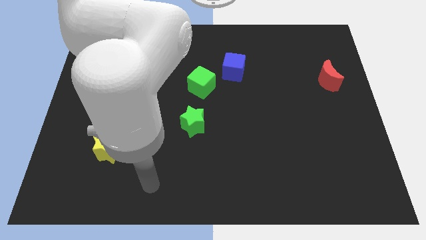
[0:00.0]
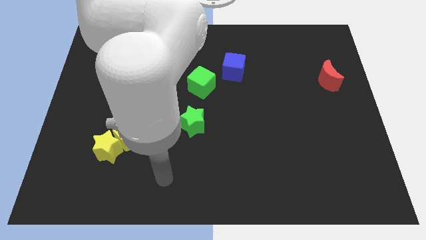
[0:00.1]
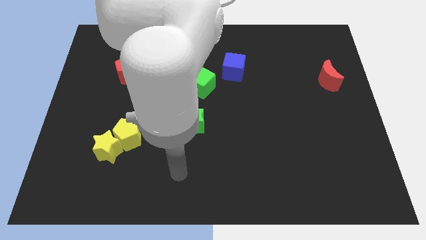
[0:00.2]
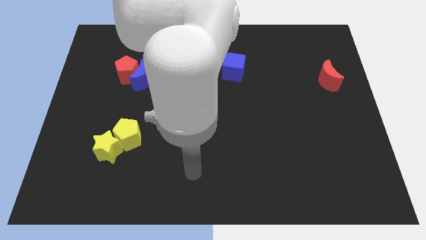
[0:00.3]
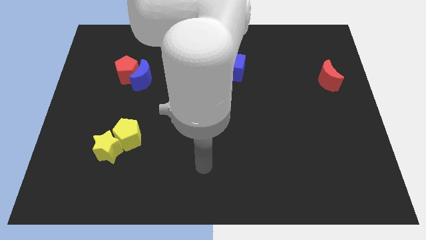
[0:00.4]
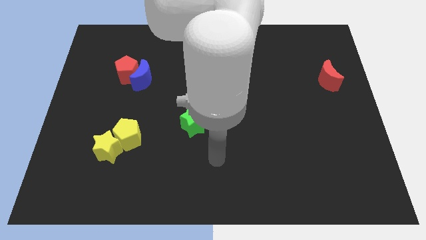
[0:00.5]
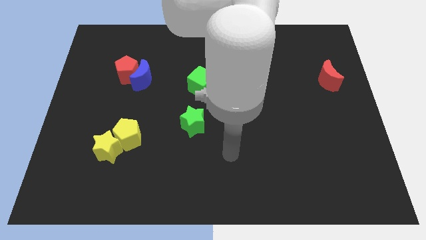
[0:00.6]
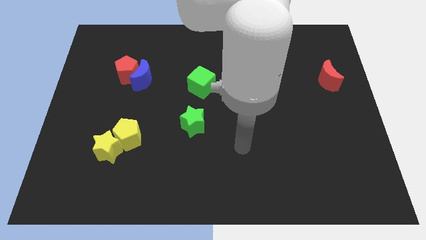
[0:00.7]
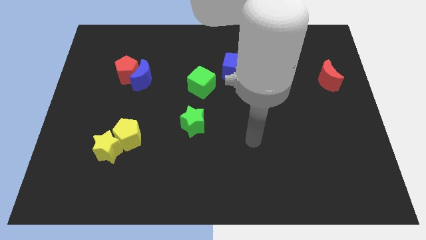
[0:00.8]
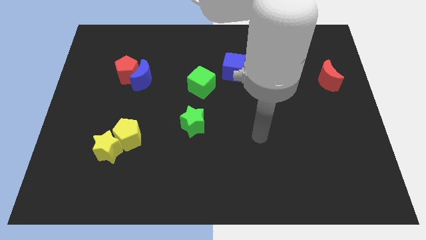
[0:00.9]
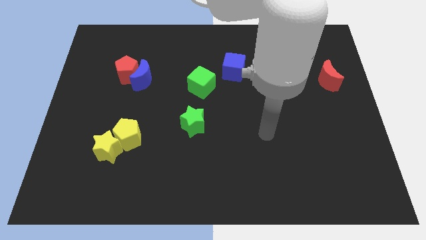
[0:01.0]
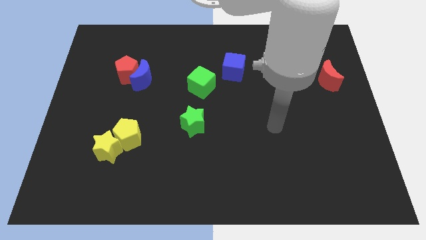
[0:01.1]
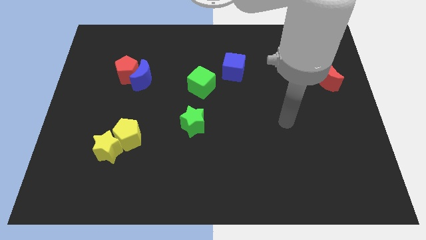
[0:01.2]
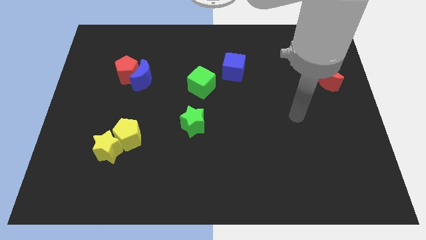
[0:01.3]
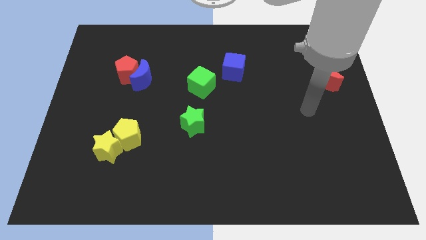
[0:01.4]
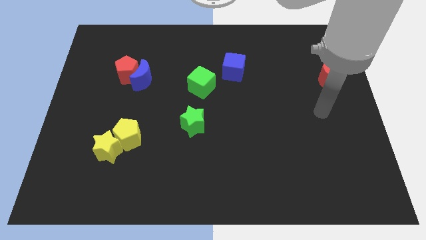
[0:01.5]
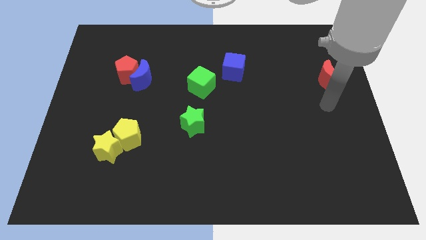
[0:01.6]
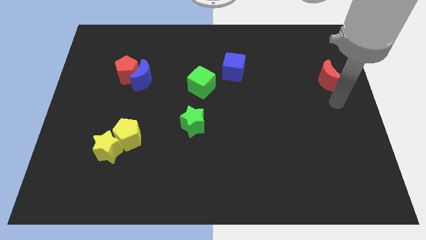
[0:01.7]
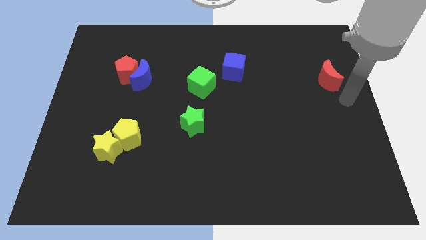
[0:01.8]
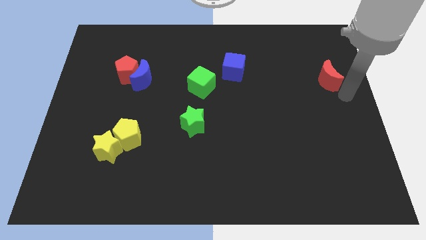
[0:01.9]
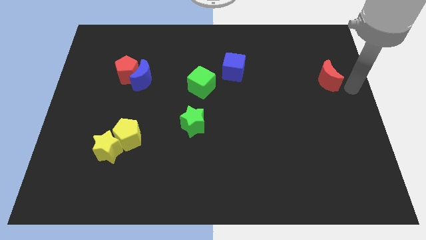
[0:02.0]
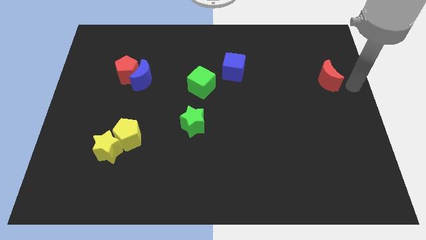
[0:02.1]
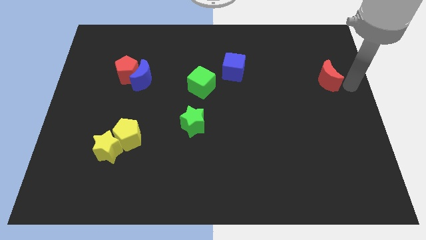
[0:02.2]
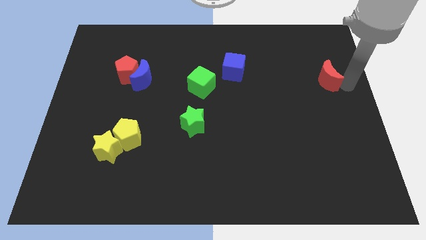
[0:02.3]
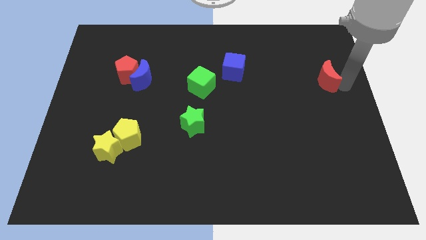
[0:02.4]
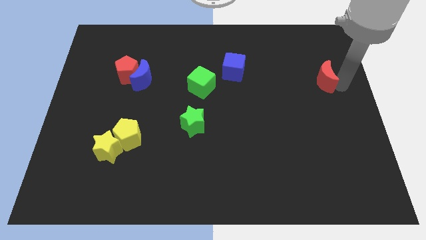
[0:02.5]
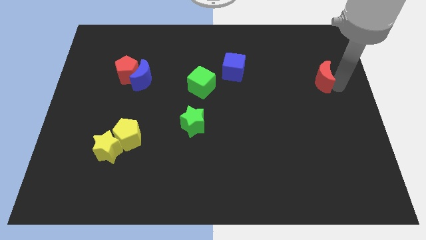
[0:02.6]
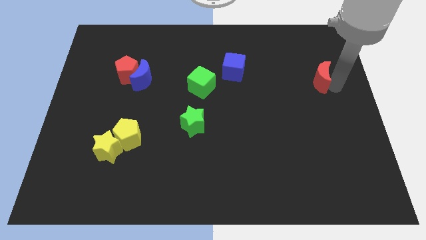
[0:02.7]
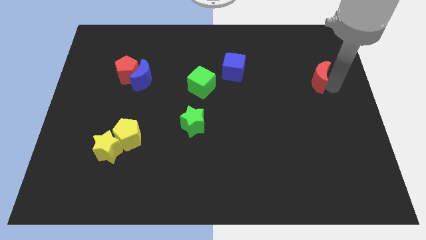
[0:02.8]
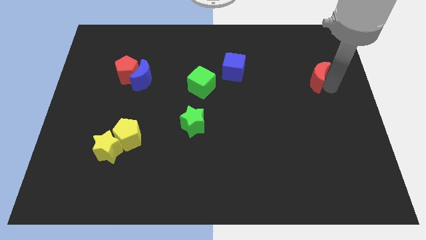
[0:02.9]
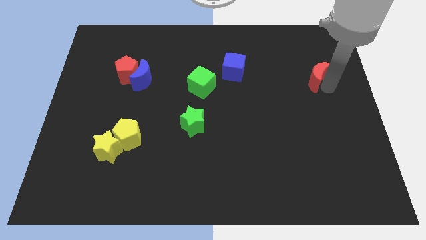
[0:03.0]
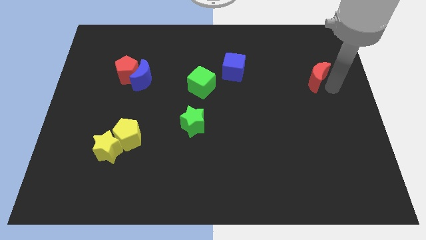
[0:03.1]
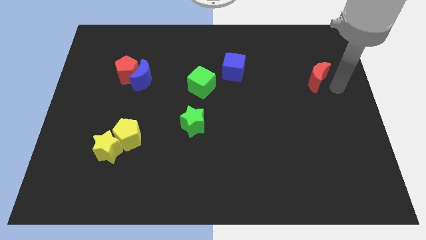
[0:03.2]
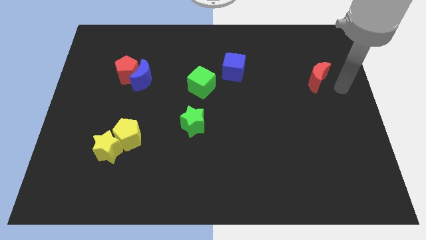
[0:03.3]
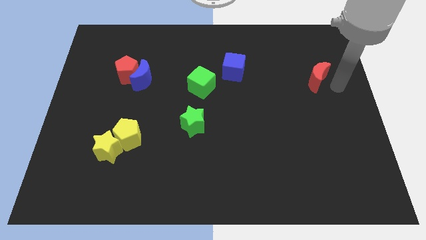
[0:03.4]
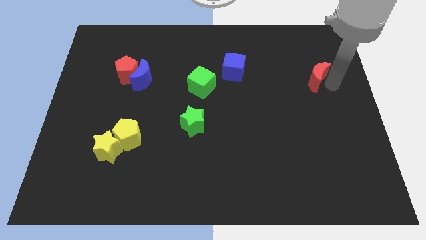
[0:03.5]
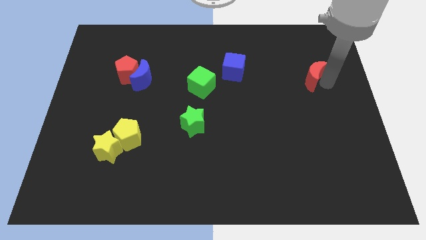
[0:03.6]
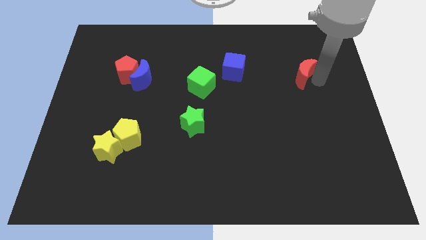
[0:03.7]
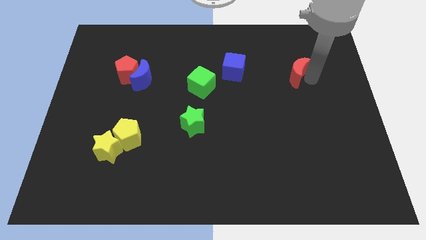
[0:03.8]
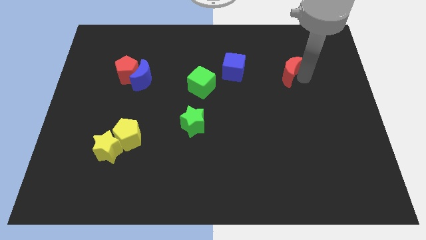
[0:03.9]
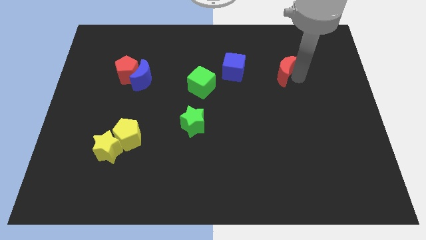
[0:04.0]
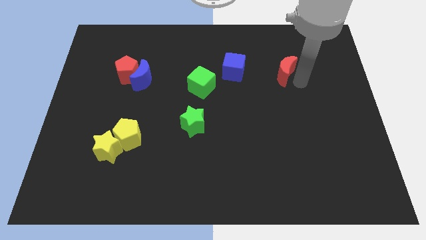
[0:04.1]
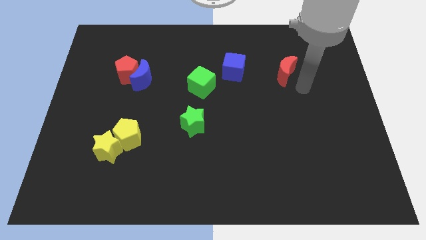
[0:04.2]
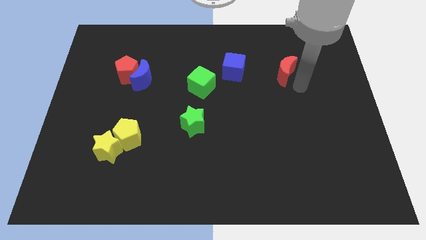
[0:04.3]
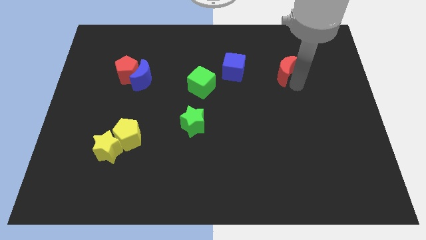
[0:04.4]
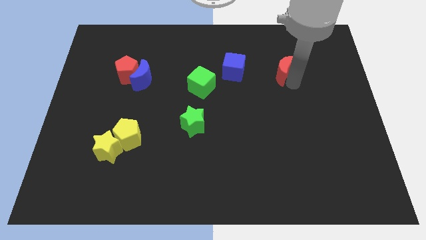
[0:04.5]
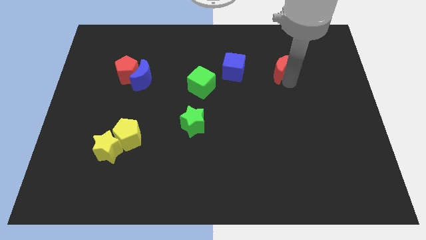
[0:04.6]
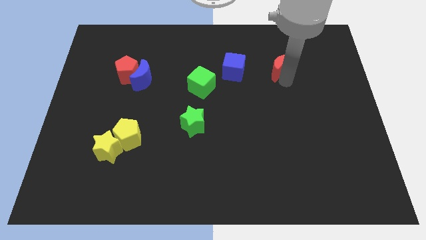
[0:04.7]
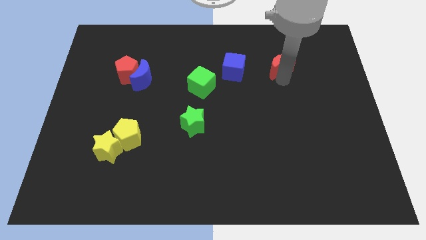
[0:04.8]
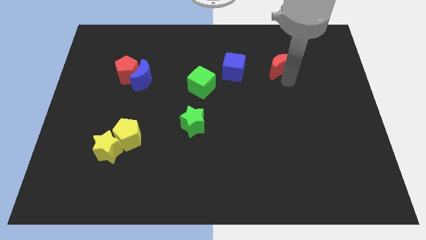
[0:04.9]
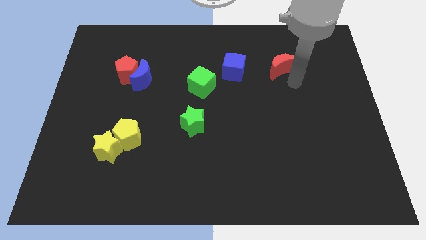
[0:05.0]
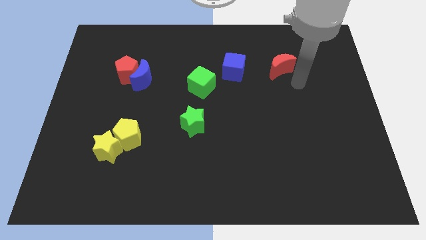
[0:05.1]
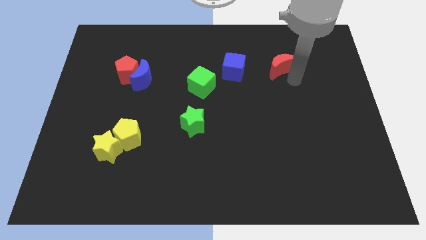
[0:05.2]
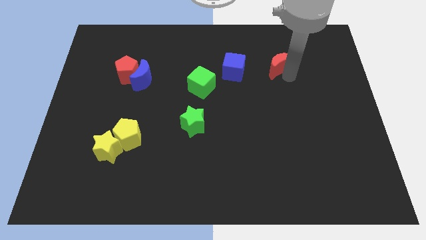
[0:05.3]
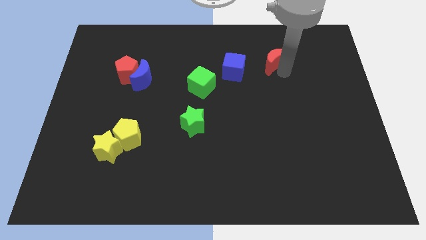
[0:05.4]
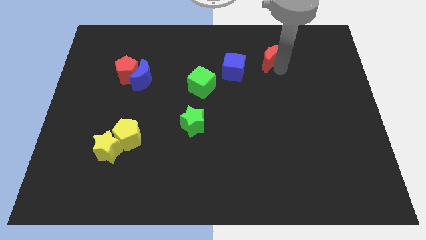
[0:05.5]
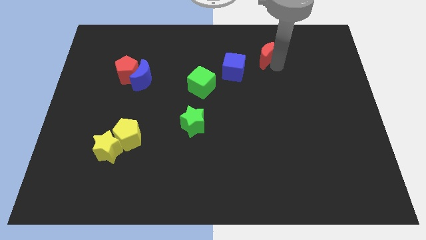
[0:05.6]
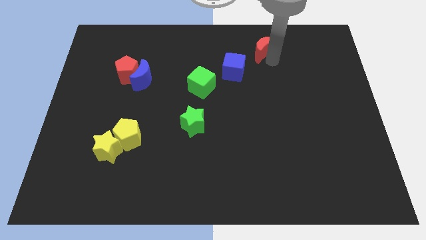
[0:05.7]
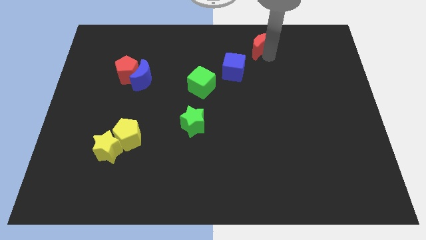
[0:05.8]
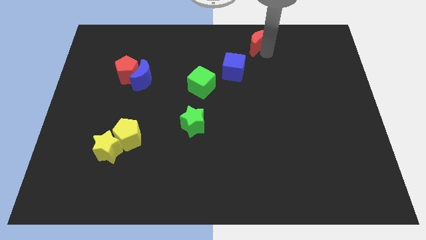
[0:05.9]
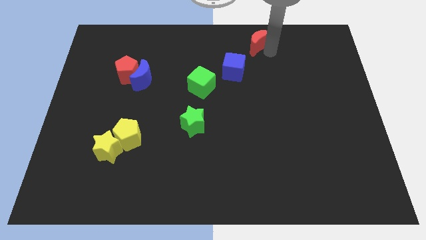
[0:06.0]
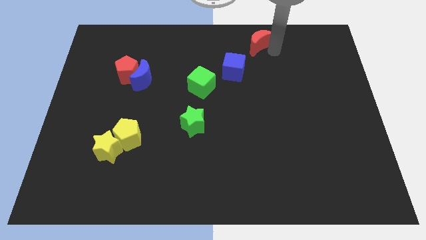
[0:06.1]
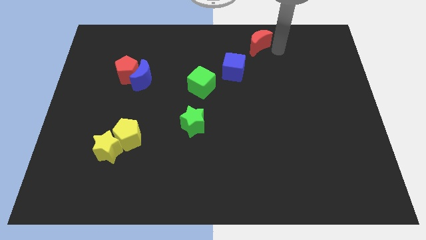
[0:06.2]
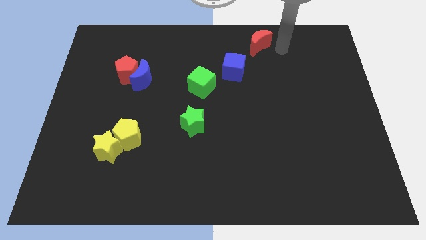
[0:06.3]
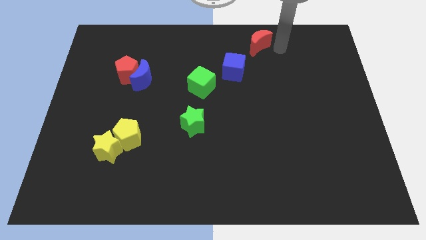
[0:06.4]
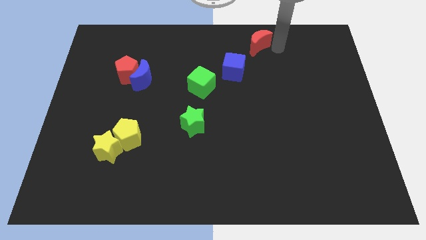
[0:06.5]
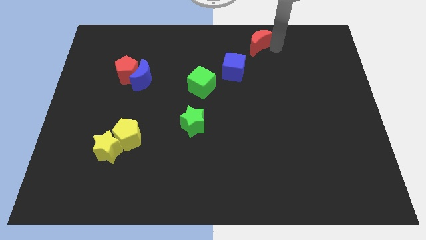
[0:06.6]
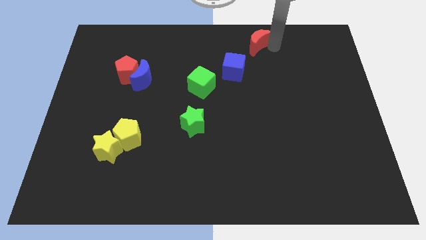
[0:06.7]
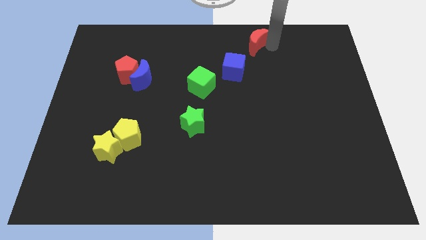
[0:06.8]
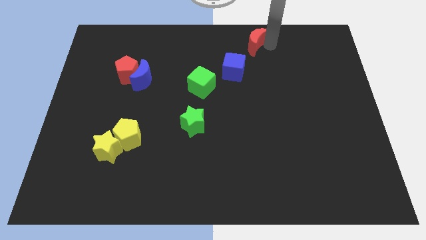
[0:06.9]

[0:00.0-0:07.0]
put the red moon to the top
